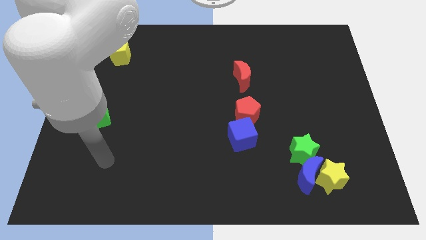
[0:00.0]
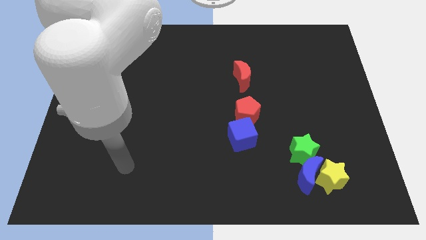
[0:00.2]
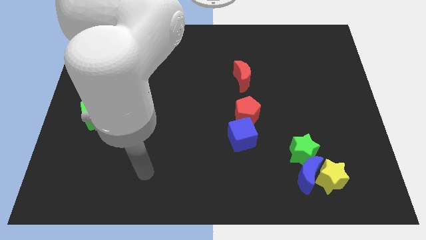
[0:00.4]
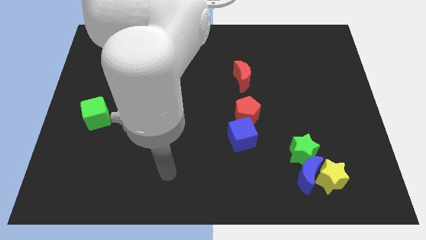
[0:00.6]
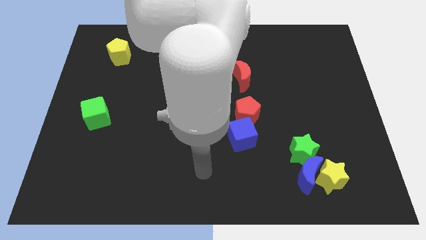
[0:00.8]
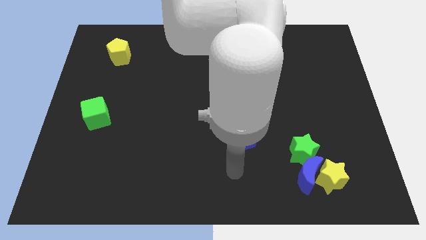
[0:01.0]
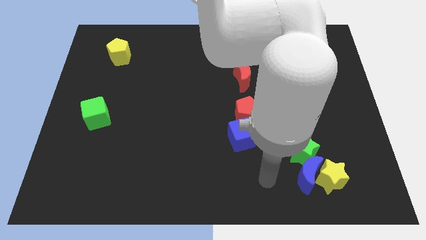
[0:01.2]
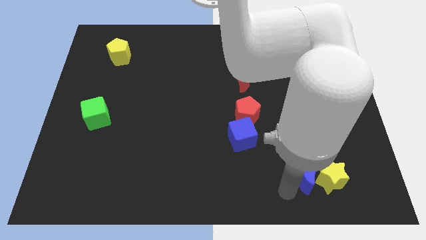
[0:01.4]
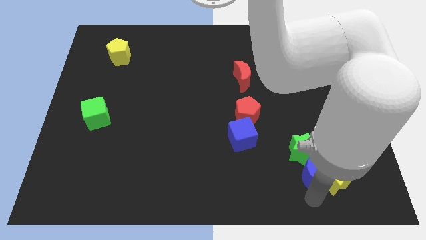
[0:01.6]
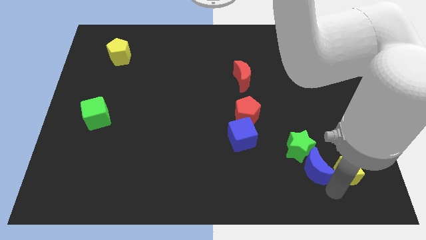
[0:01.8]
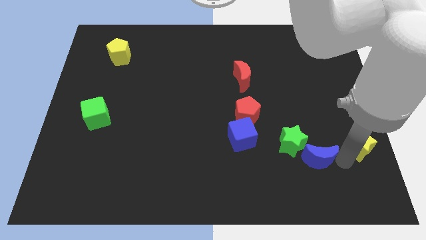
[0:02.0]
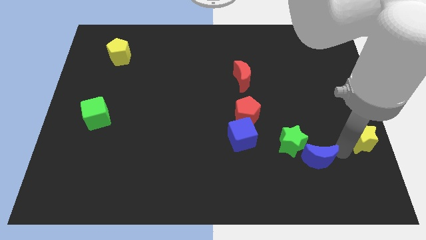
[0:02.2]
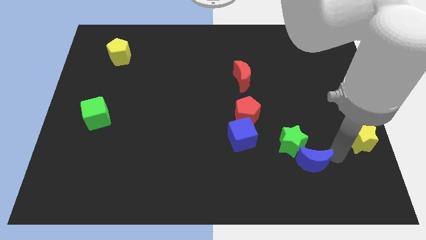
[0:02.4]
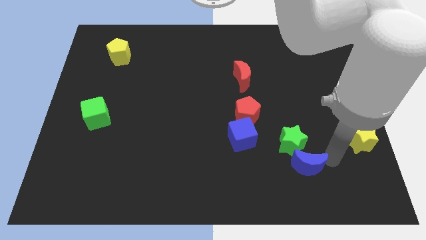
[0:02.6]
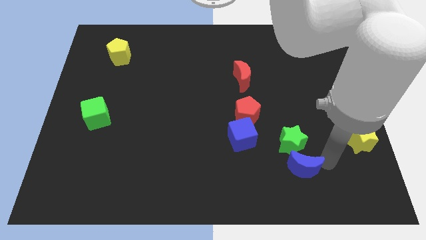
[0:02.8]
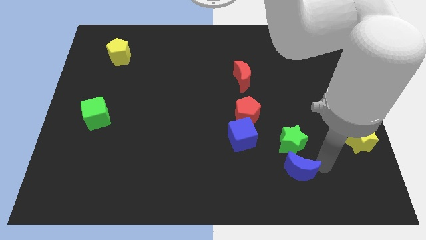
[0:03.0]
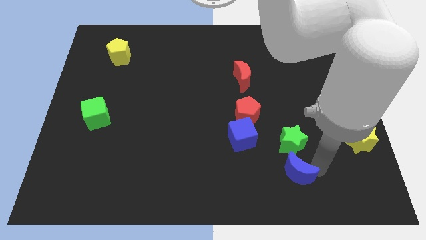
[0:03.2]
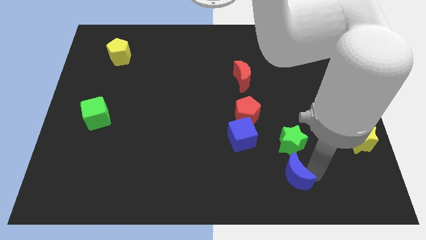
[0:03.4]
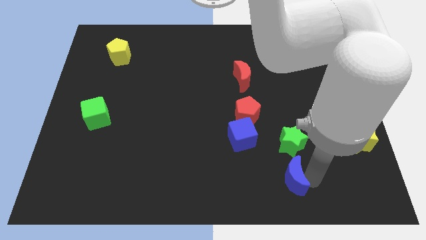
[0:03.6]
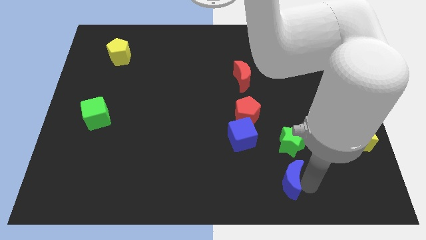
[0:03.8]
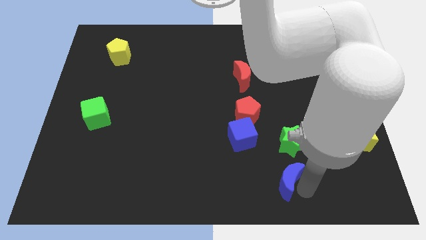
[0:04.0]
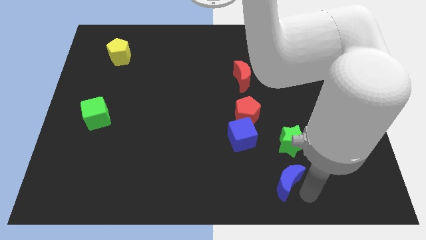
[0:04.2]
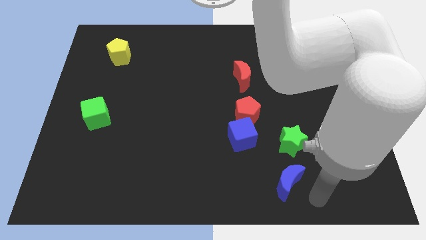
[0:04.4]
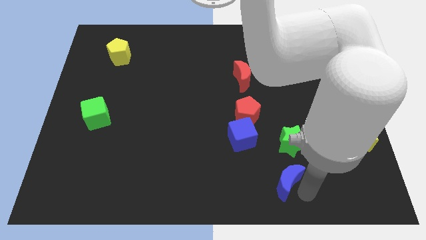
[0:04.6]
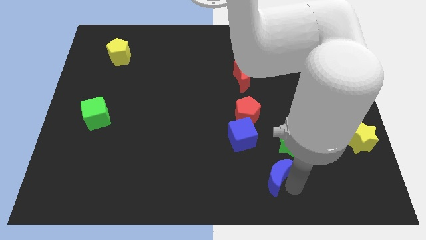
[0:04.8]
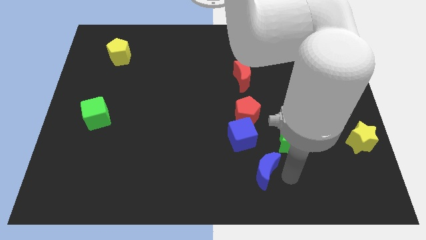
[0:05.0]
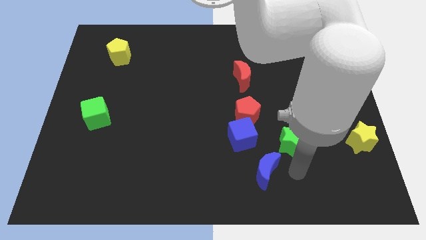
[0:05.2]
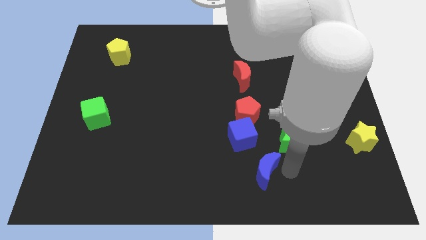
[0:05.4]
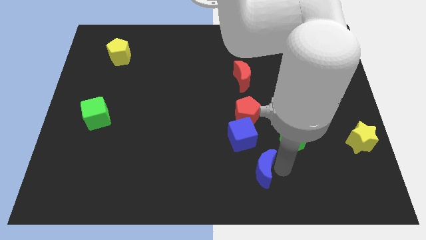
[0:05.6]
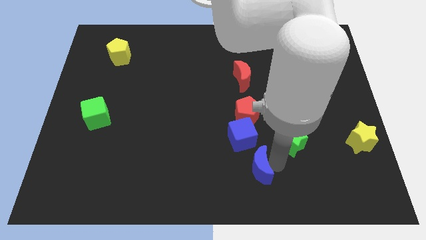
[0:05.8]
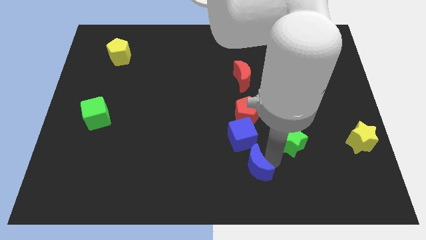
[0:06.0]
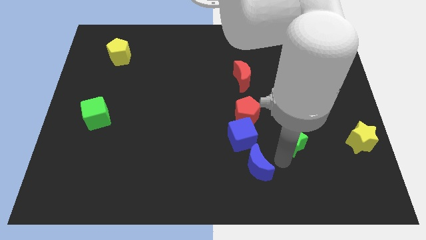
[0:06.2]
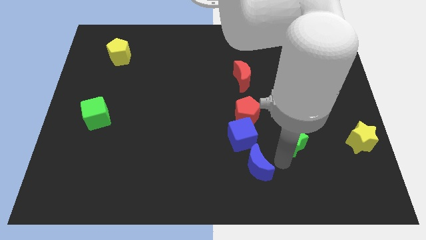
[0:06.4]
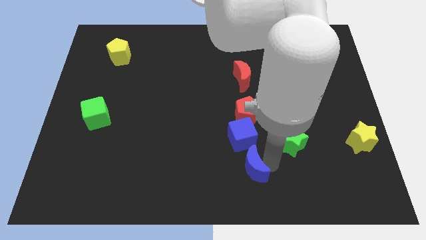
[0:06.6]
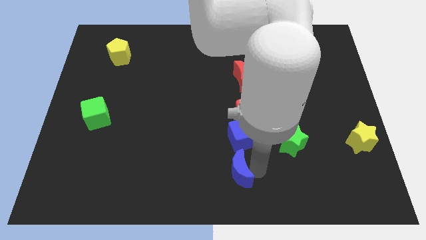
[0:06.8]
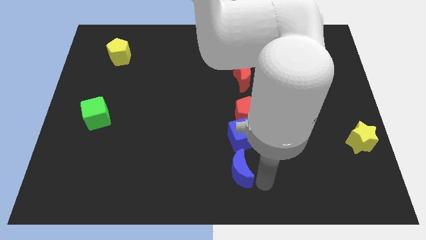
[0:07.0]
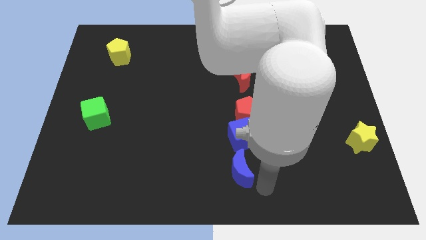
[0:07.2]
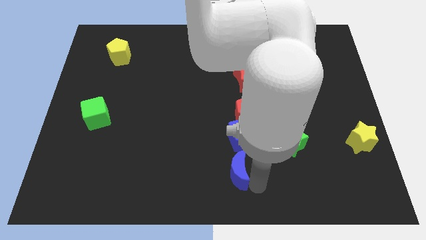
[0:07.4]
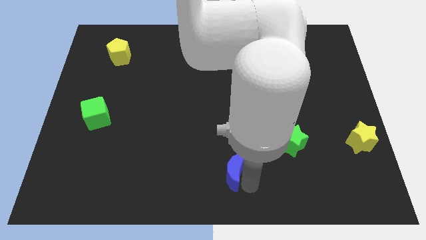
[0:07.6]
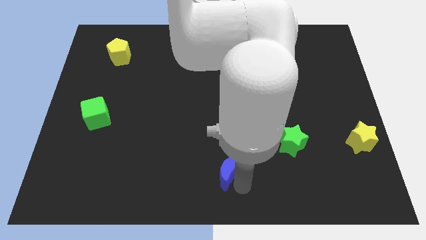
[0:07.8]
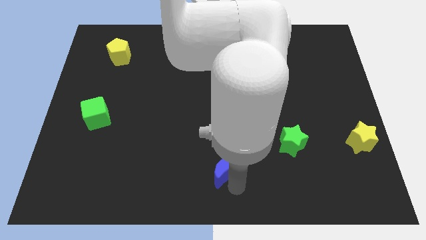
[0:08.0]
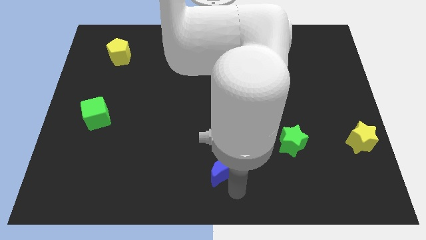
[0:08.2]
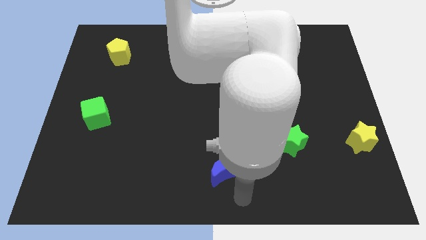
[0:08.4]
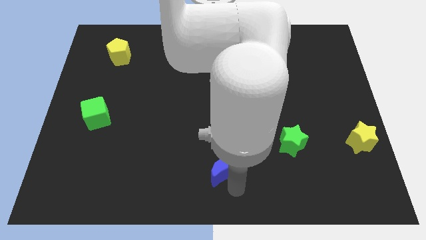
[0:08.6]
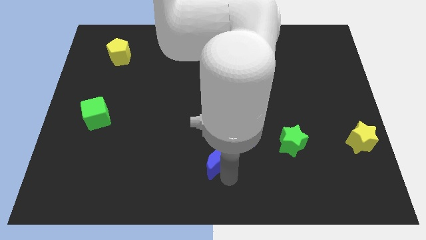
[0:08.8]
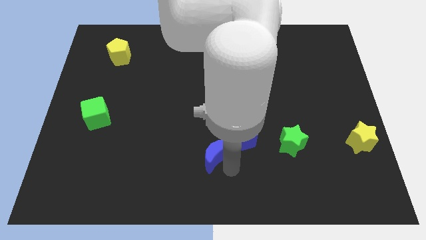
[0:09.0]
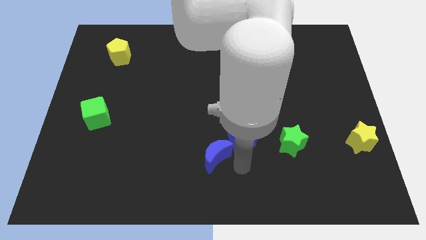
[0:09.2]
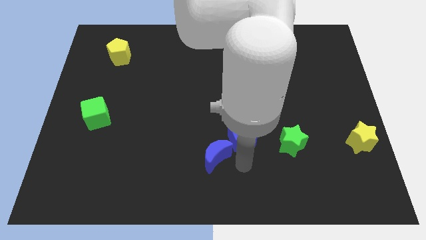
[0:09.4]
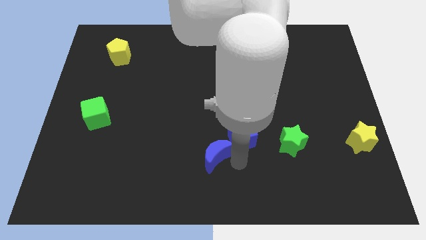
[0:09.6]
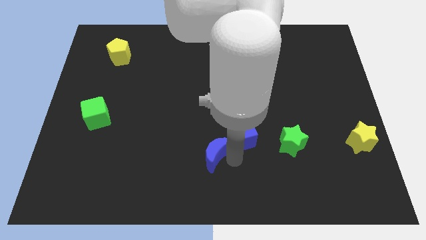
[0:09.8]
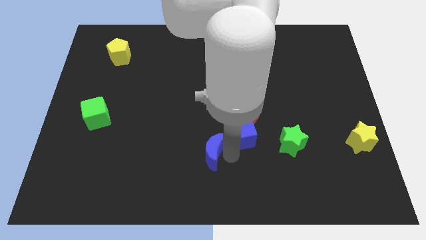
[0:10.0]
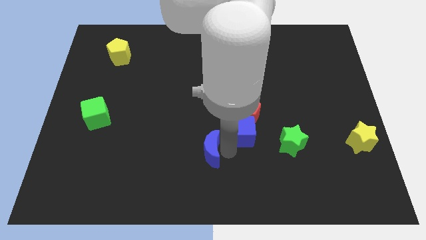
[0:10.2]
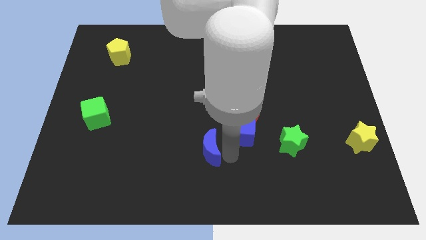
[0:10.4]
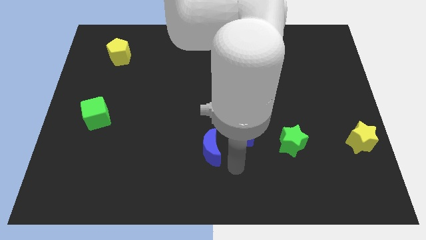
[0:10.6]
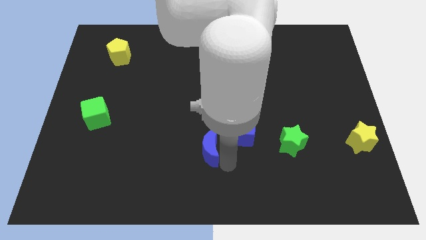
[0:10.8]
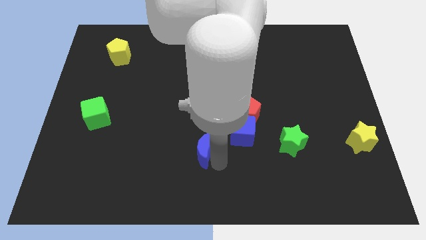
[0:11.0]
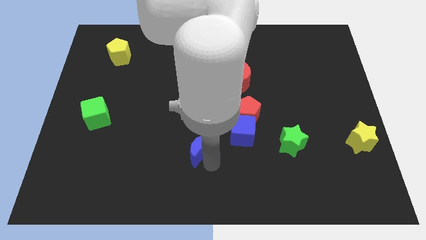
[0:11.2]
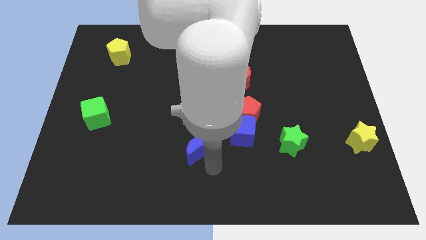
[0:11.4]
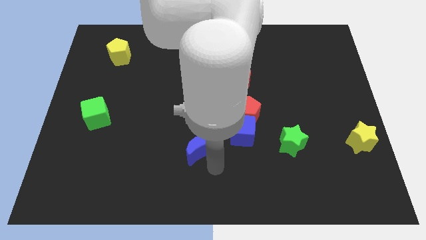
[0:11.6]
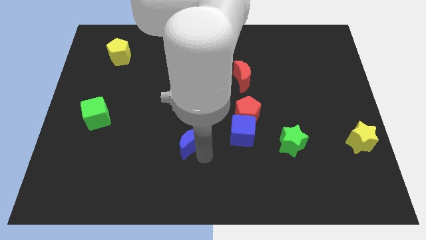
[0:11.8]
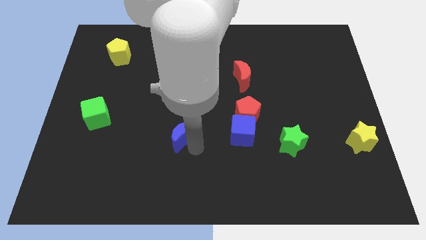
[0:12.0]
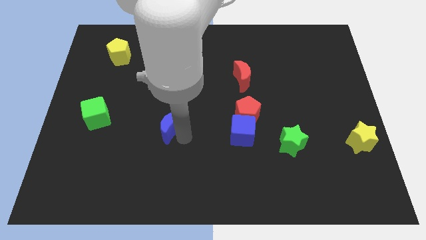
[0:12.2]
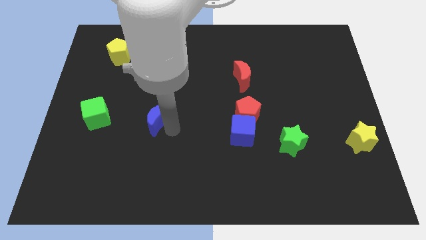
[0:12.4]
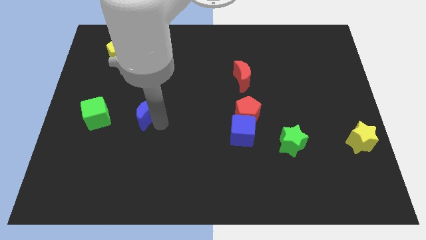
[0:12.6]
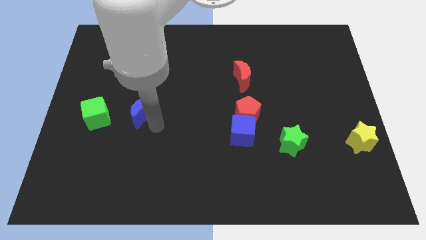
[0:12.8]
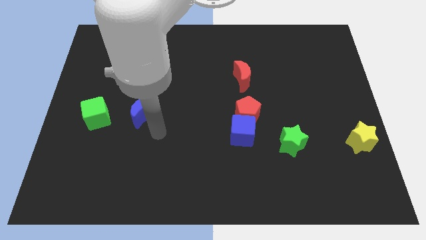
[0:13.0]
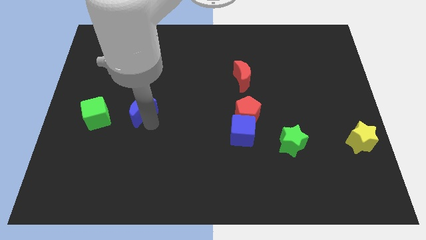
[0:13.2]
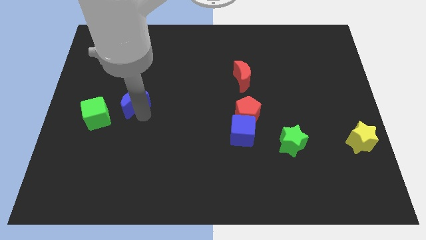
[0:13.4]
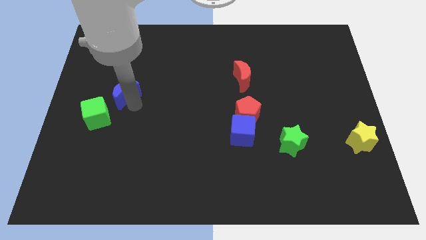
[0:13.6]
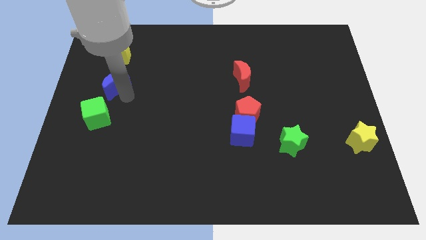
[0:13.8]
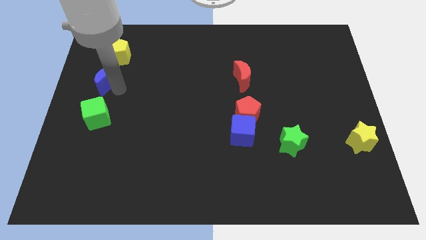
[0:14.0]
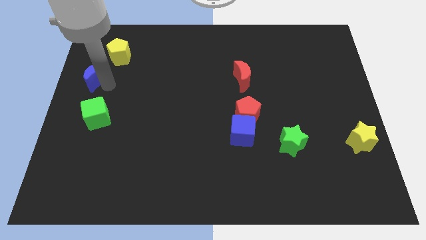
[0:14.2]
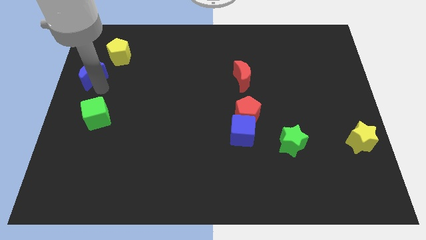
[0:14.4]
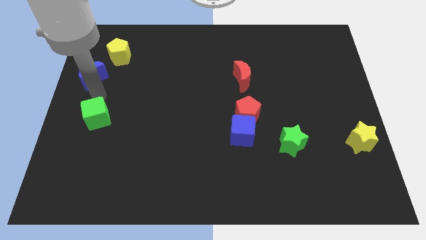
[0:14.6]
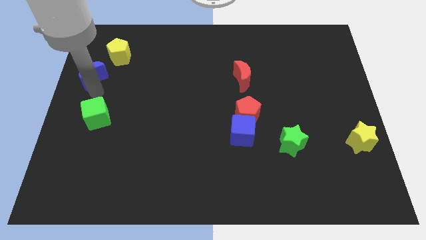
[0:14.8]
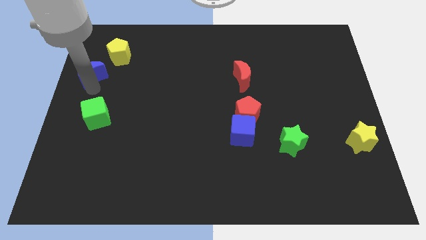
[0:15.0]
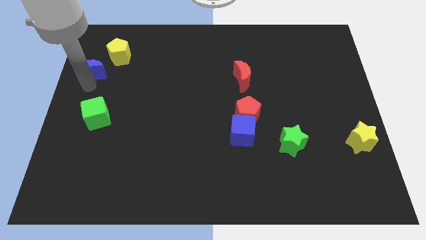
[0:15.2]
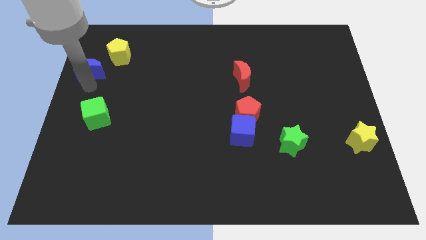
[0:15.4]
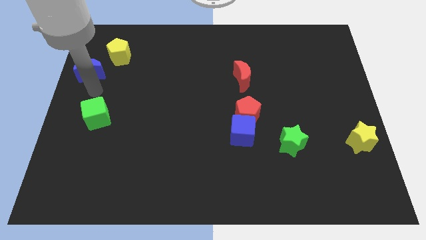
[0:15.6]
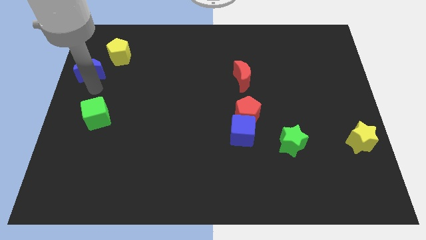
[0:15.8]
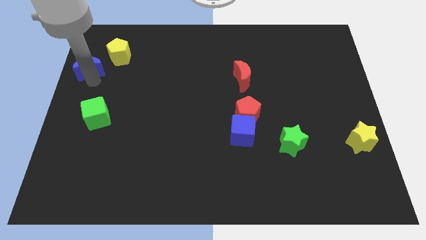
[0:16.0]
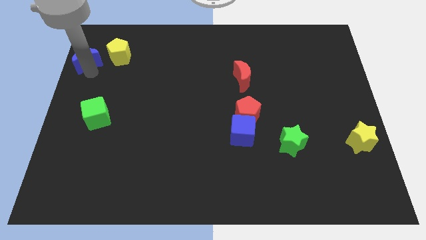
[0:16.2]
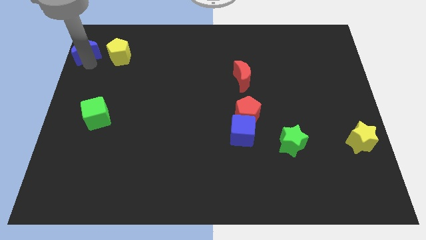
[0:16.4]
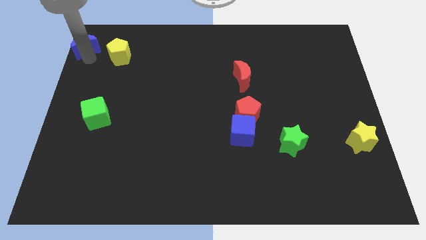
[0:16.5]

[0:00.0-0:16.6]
push the blue moon to the top left of the board
